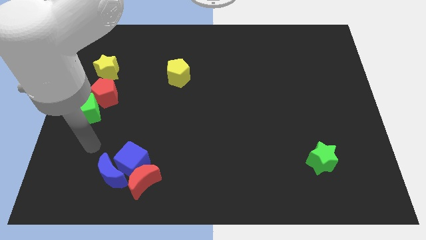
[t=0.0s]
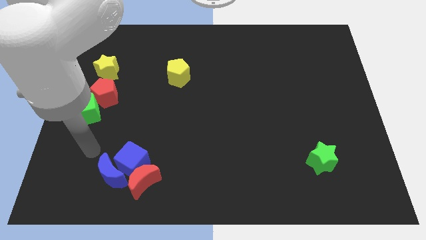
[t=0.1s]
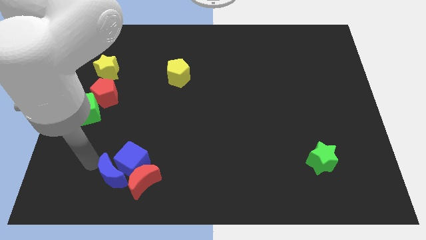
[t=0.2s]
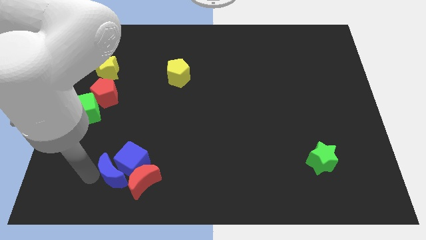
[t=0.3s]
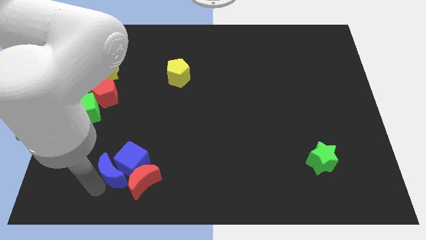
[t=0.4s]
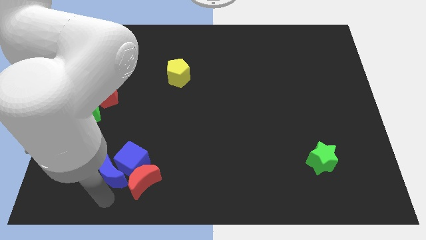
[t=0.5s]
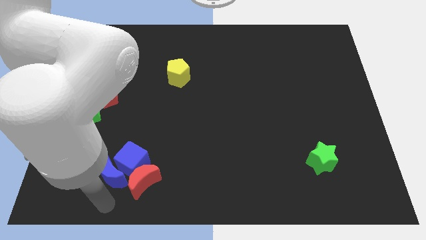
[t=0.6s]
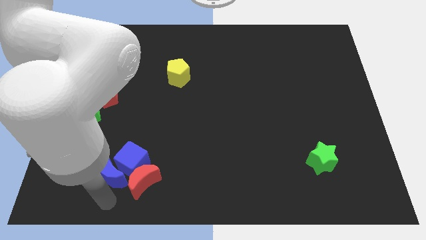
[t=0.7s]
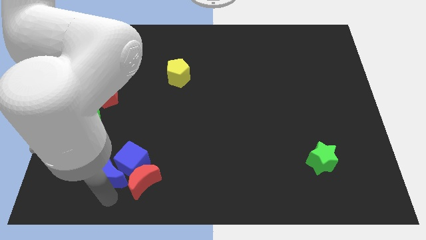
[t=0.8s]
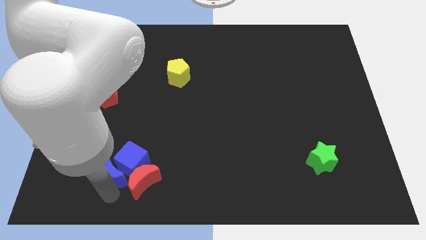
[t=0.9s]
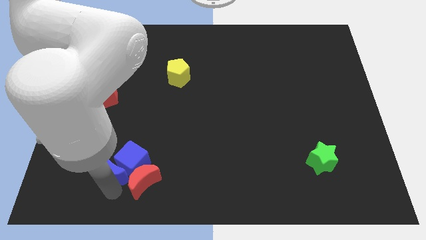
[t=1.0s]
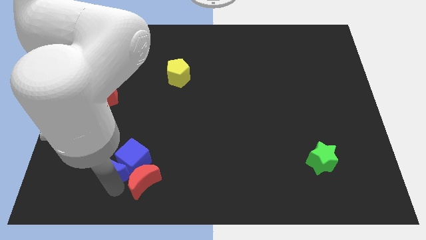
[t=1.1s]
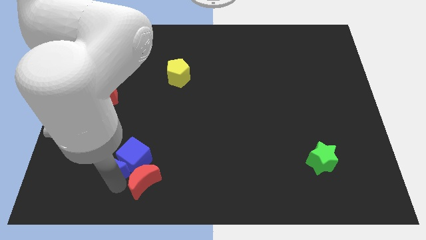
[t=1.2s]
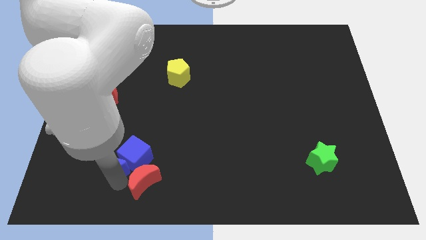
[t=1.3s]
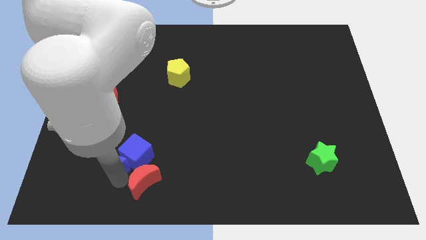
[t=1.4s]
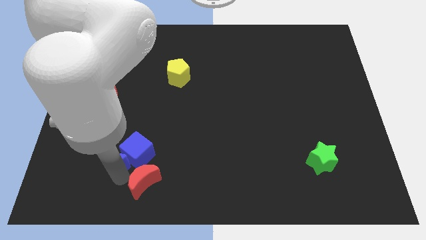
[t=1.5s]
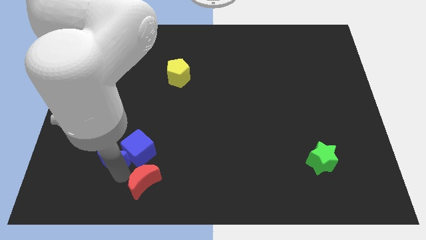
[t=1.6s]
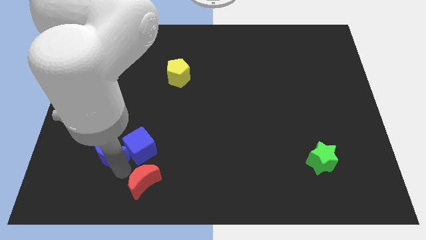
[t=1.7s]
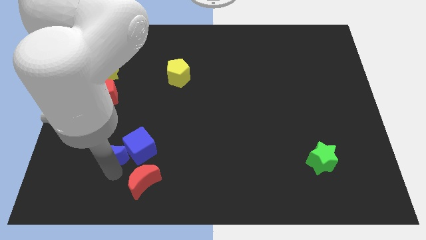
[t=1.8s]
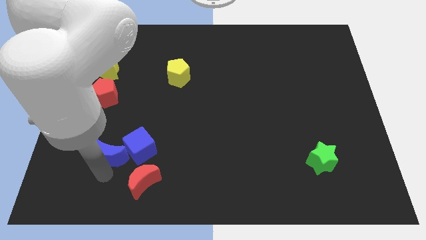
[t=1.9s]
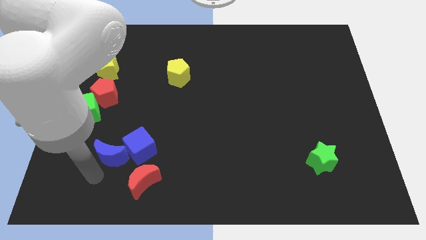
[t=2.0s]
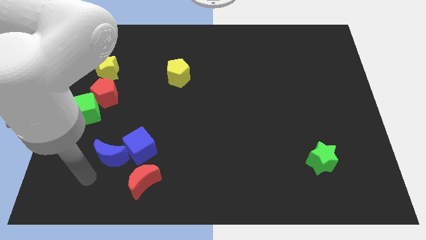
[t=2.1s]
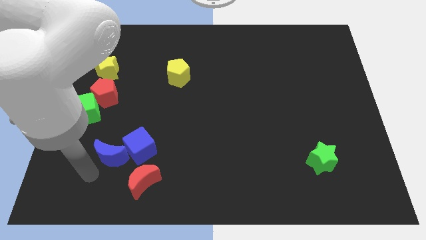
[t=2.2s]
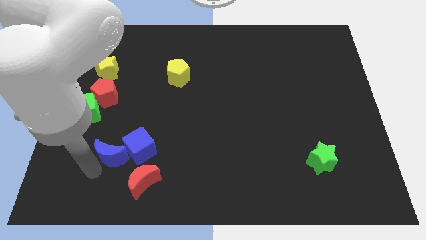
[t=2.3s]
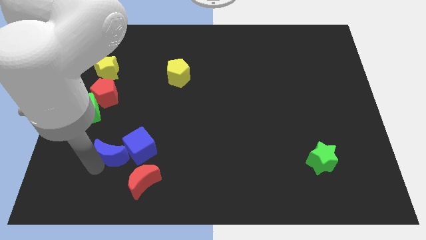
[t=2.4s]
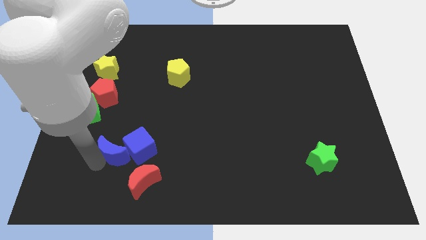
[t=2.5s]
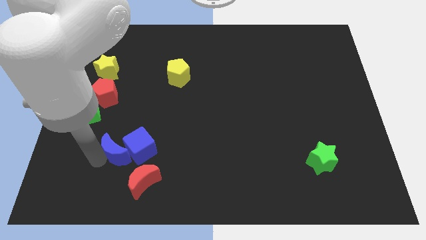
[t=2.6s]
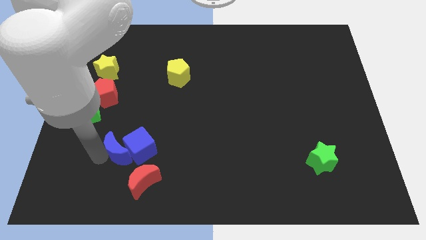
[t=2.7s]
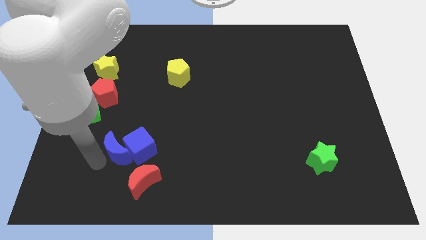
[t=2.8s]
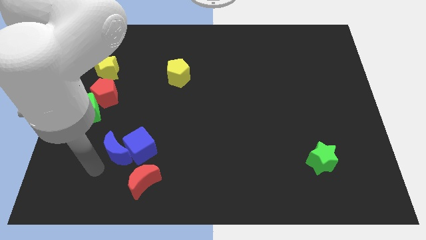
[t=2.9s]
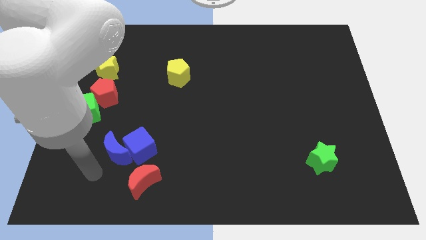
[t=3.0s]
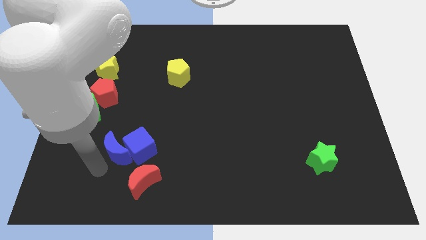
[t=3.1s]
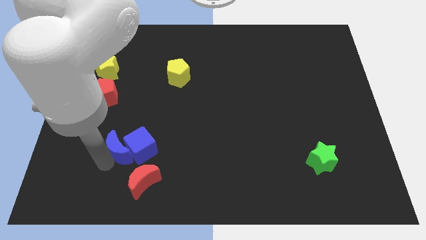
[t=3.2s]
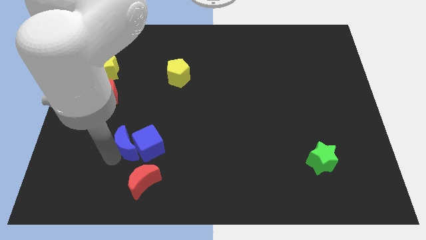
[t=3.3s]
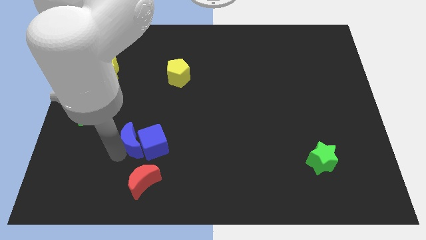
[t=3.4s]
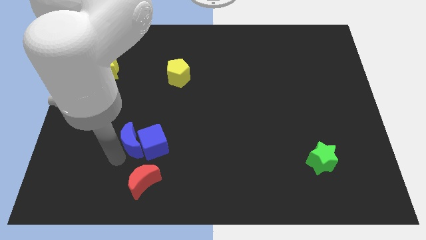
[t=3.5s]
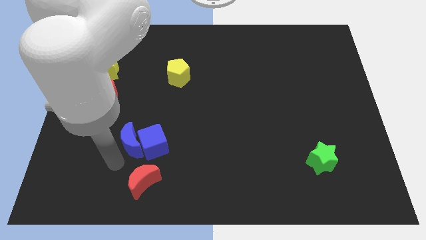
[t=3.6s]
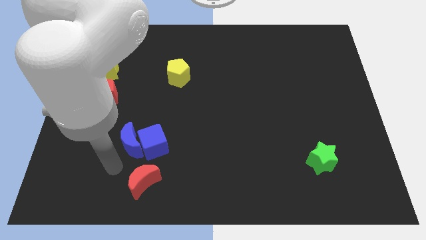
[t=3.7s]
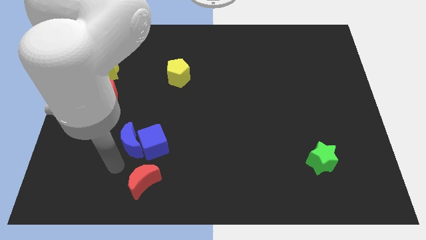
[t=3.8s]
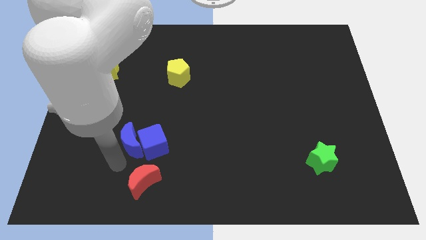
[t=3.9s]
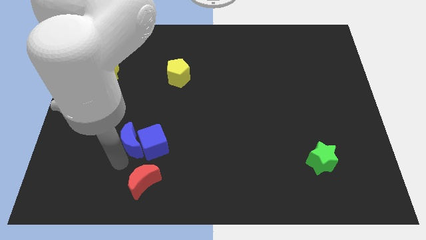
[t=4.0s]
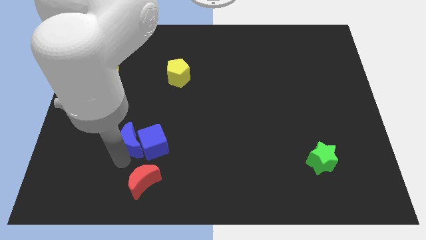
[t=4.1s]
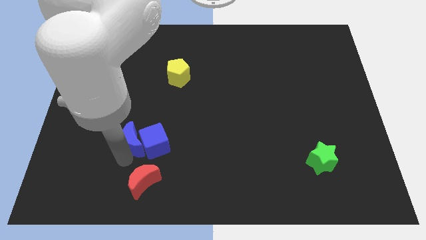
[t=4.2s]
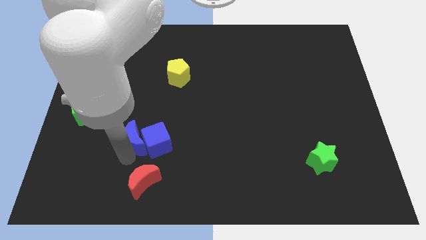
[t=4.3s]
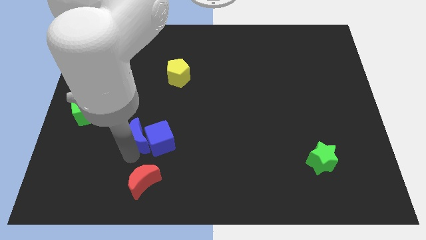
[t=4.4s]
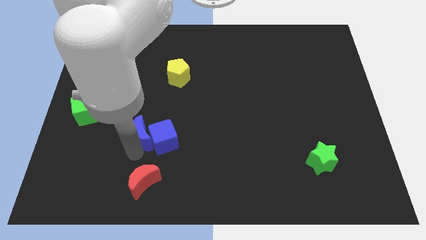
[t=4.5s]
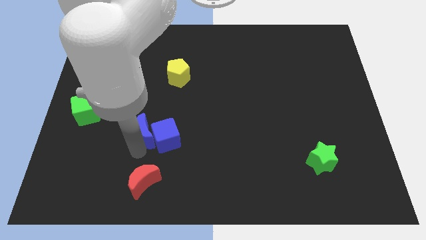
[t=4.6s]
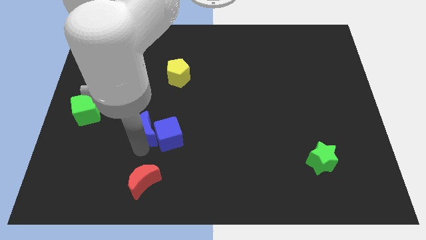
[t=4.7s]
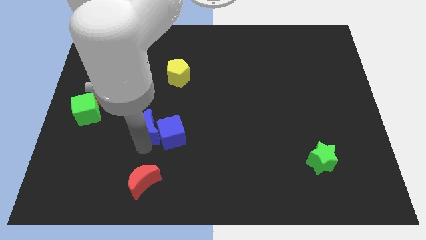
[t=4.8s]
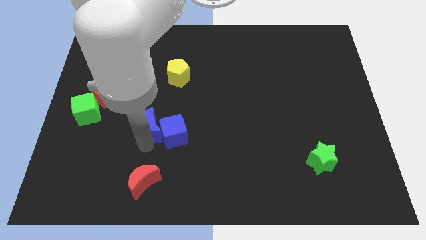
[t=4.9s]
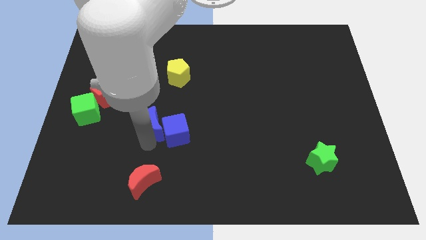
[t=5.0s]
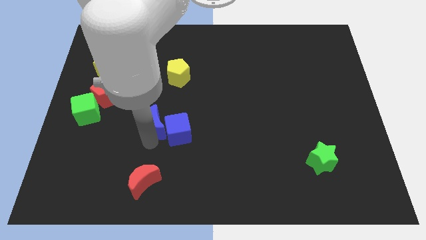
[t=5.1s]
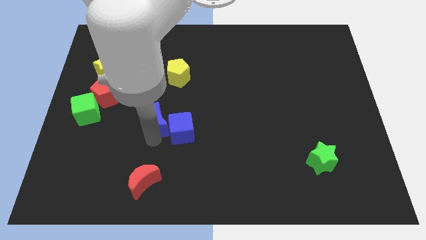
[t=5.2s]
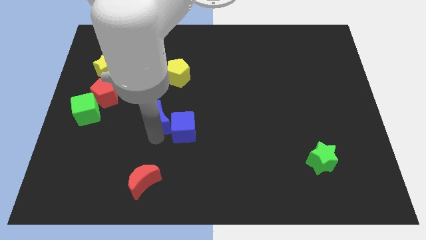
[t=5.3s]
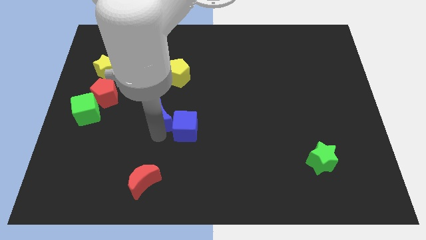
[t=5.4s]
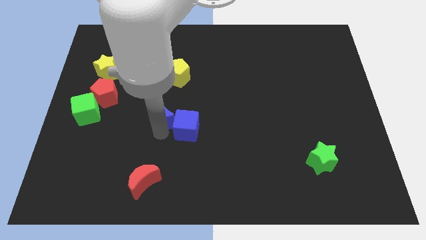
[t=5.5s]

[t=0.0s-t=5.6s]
move the blue moon to the center
